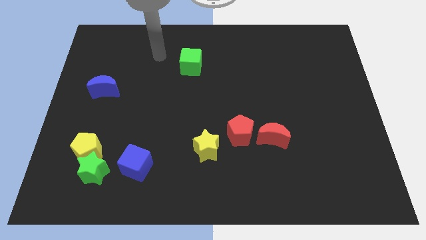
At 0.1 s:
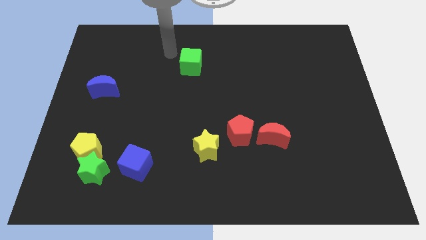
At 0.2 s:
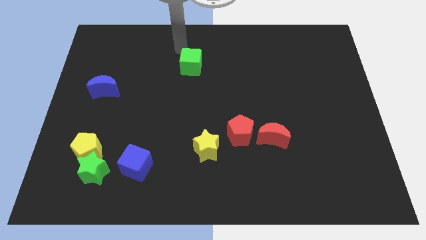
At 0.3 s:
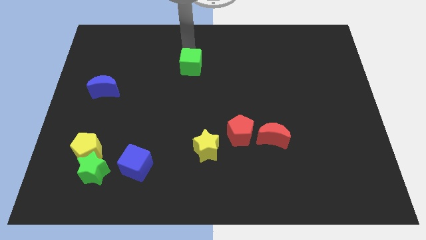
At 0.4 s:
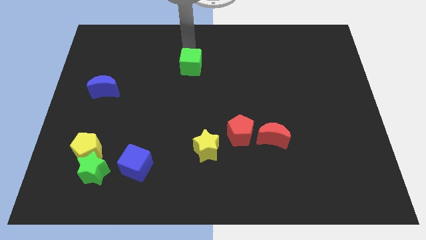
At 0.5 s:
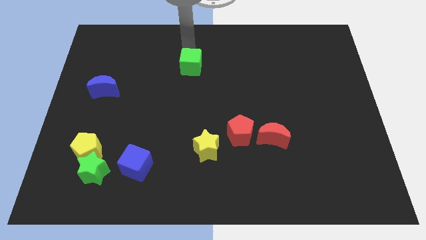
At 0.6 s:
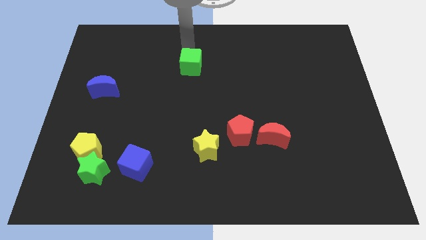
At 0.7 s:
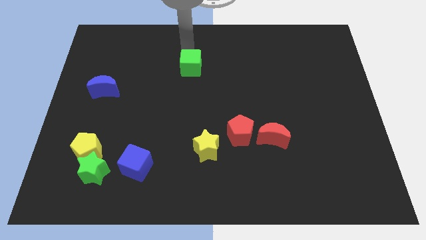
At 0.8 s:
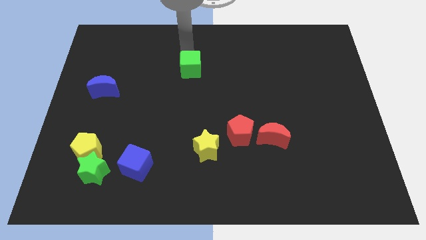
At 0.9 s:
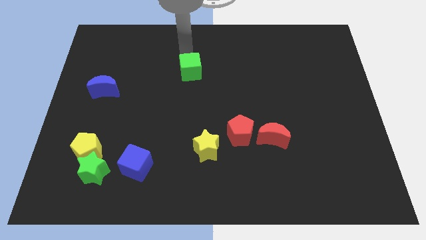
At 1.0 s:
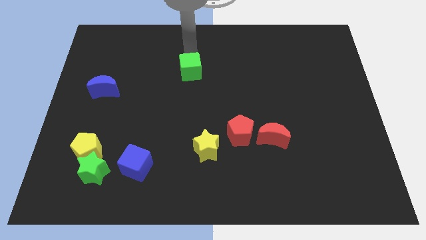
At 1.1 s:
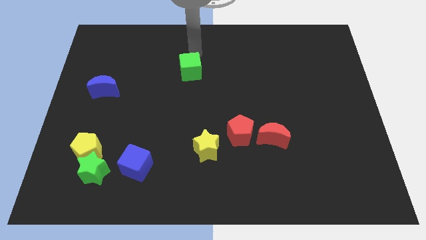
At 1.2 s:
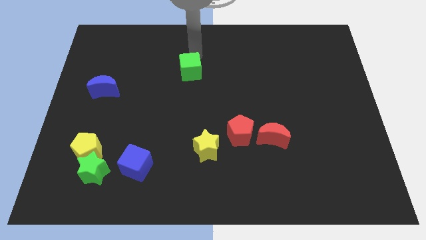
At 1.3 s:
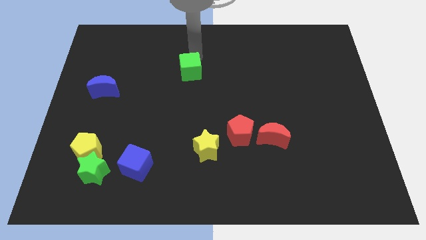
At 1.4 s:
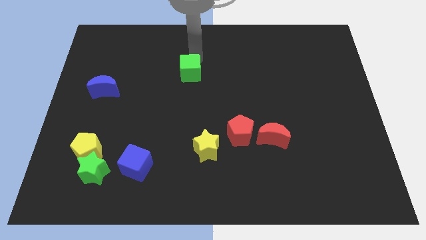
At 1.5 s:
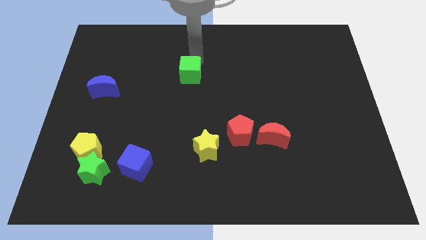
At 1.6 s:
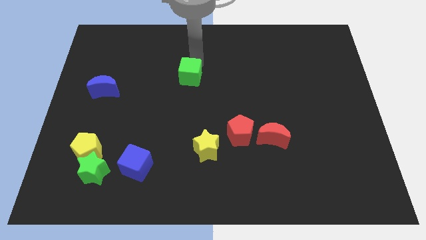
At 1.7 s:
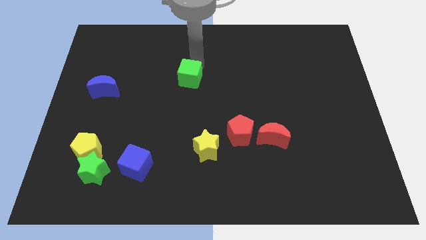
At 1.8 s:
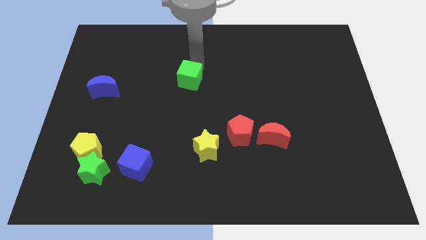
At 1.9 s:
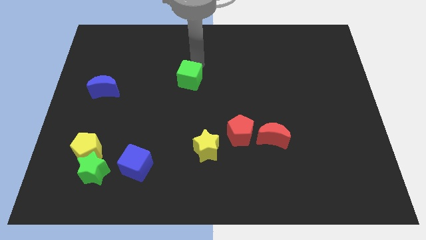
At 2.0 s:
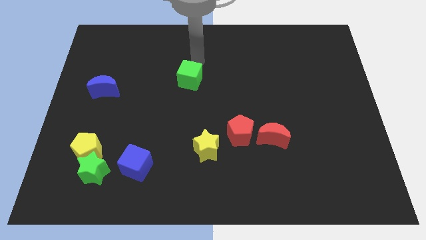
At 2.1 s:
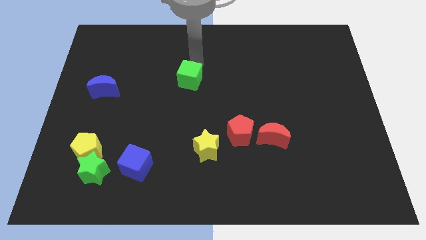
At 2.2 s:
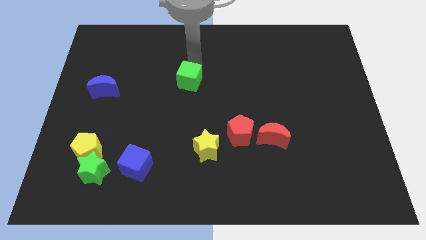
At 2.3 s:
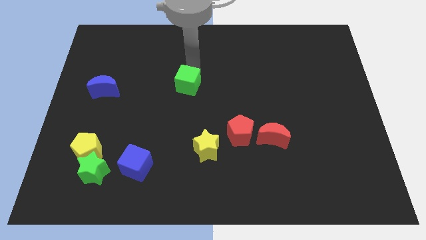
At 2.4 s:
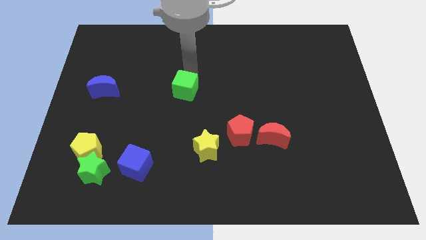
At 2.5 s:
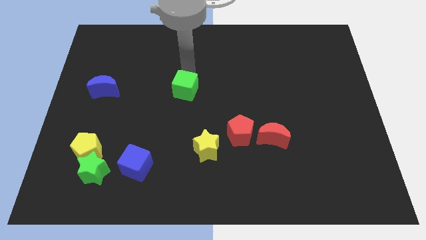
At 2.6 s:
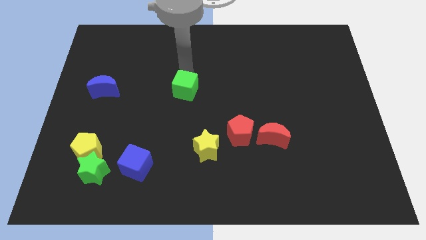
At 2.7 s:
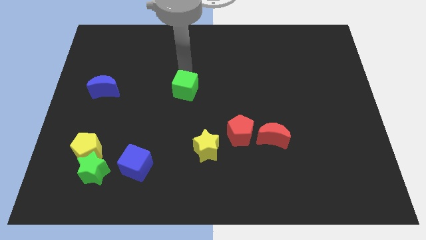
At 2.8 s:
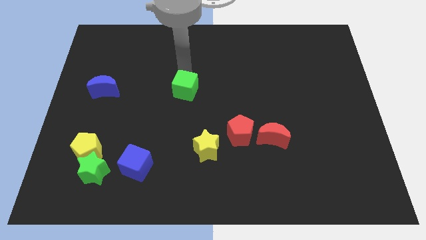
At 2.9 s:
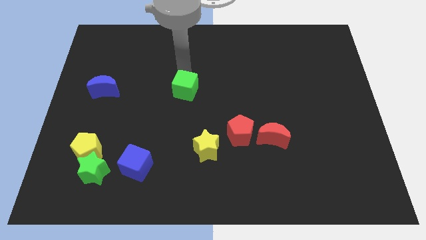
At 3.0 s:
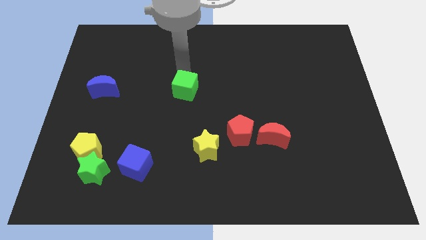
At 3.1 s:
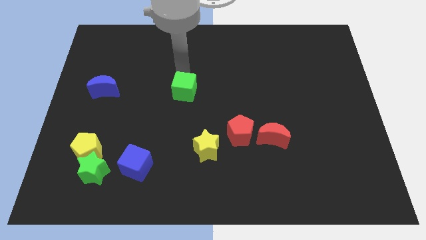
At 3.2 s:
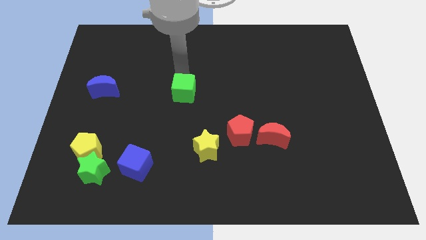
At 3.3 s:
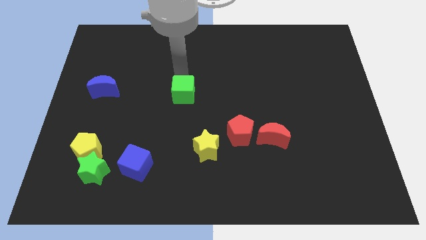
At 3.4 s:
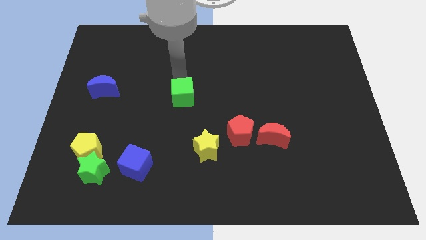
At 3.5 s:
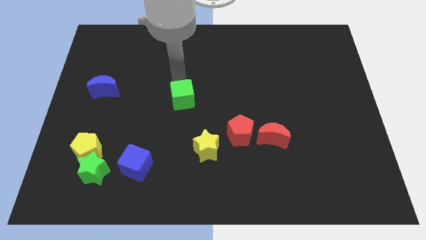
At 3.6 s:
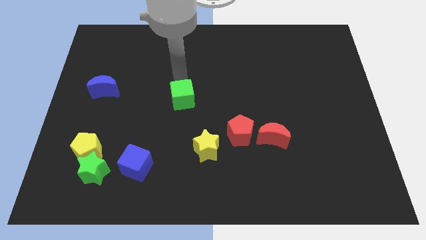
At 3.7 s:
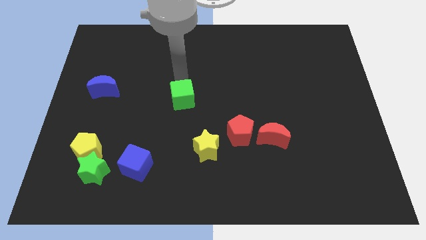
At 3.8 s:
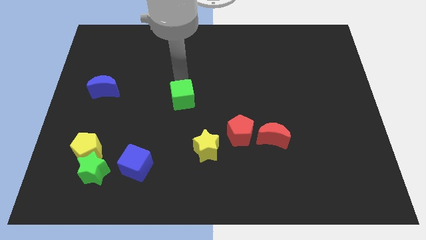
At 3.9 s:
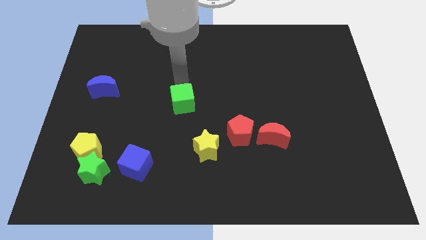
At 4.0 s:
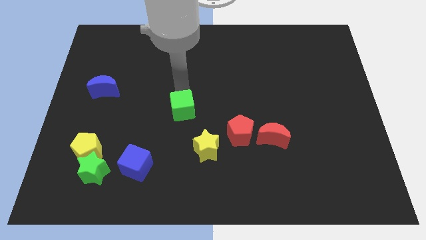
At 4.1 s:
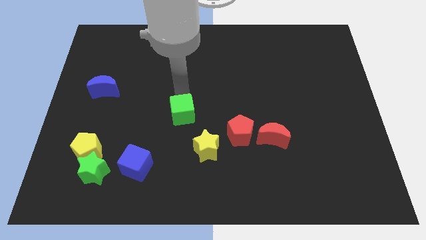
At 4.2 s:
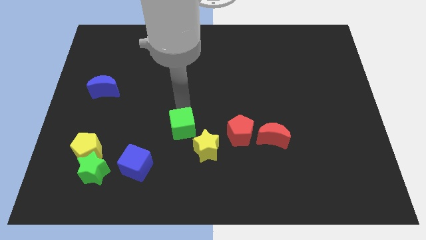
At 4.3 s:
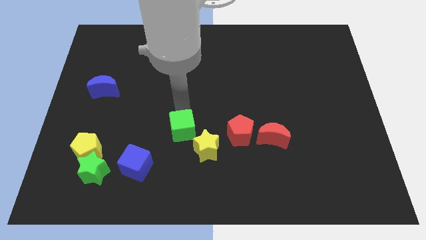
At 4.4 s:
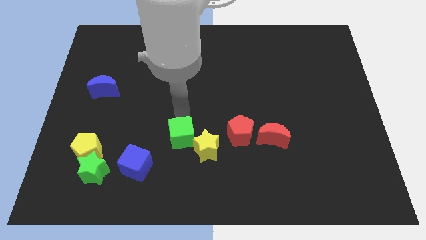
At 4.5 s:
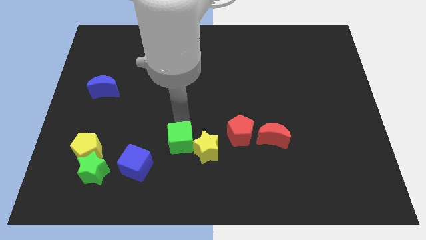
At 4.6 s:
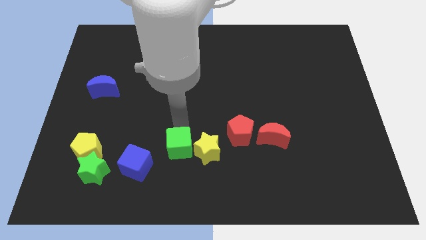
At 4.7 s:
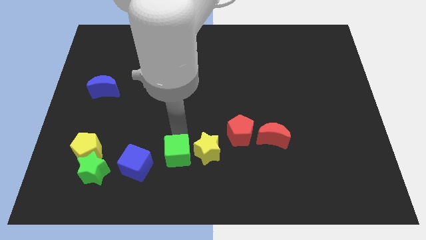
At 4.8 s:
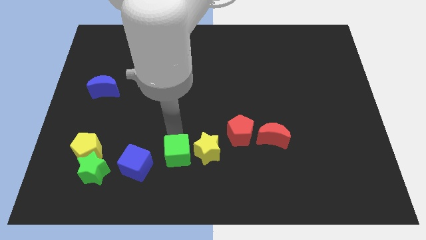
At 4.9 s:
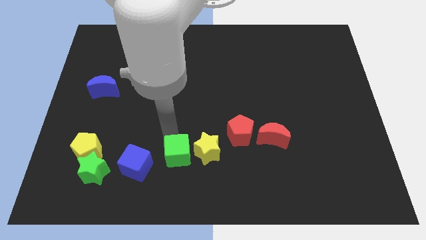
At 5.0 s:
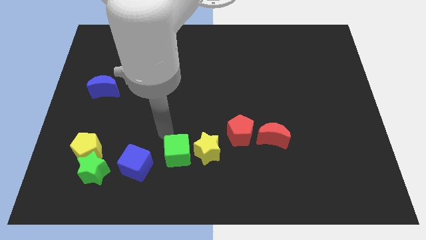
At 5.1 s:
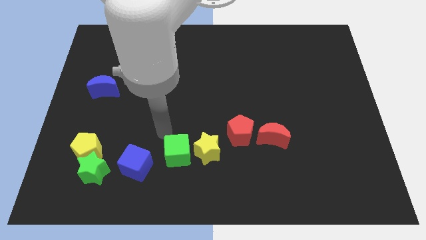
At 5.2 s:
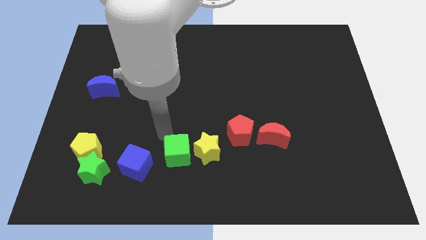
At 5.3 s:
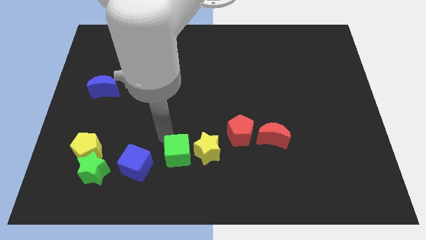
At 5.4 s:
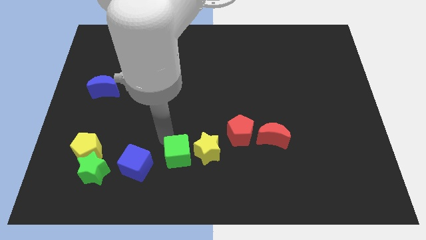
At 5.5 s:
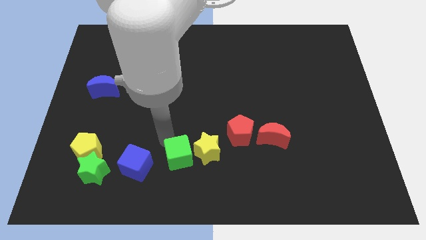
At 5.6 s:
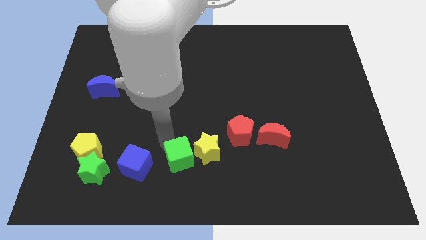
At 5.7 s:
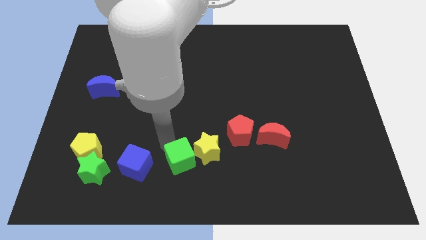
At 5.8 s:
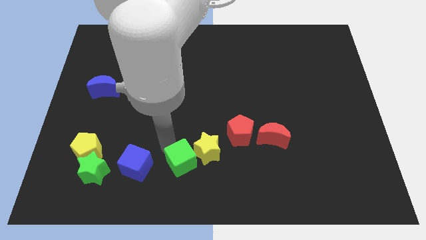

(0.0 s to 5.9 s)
put the green cube to the bottom side

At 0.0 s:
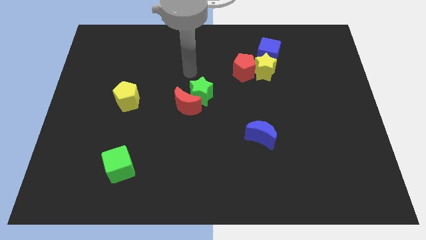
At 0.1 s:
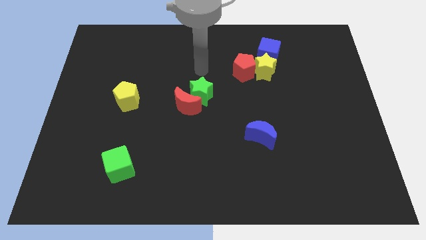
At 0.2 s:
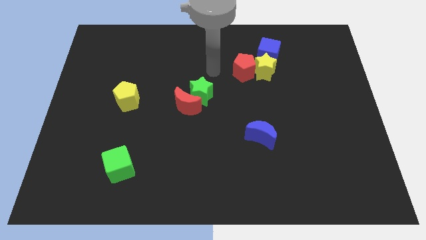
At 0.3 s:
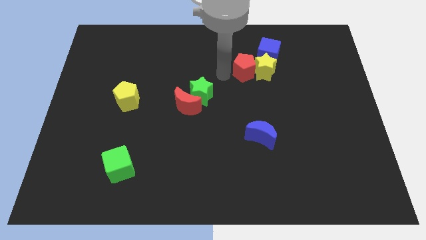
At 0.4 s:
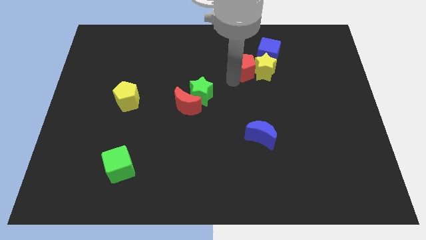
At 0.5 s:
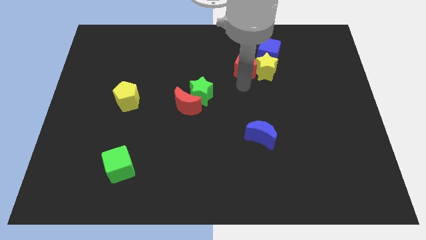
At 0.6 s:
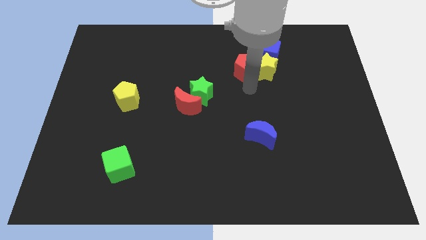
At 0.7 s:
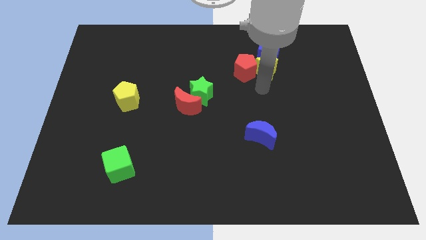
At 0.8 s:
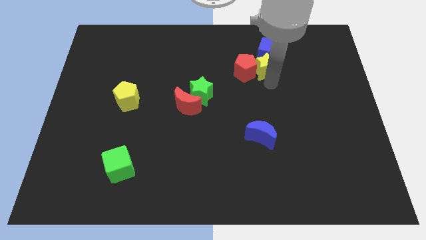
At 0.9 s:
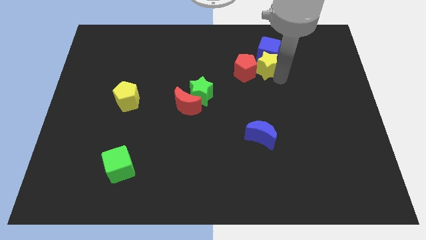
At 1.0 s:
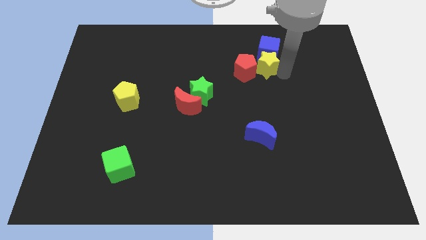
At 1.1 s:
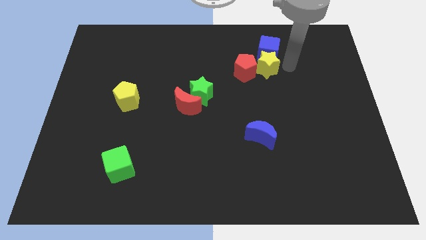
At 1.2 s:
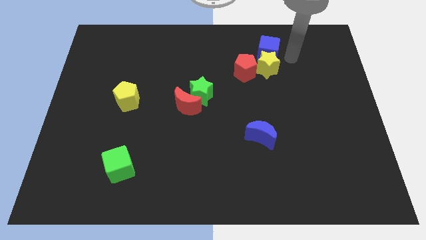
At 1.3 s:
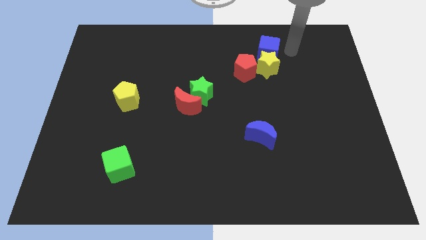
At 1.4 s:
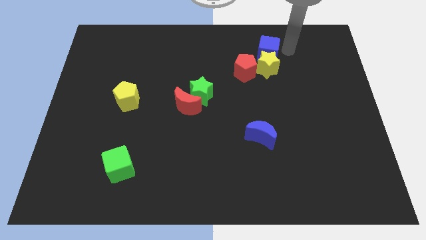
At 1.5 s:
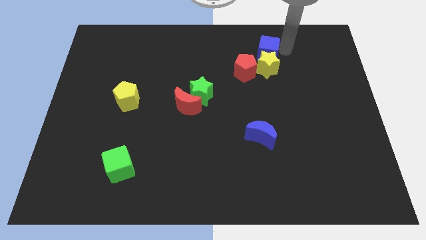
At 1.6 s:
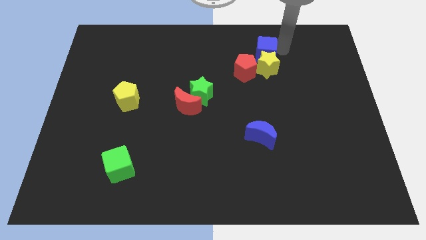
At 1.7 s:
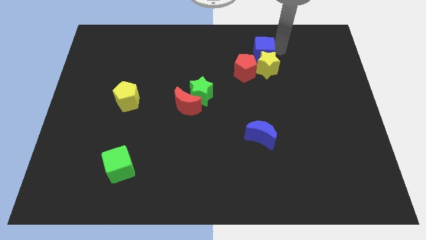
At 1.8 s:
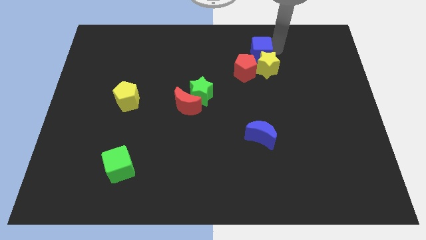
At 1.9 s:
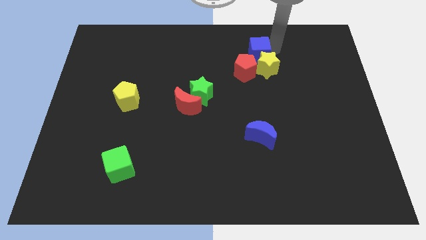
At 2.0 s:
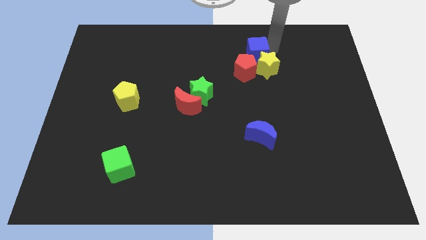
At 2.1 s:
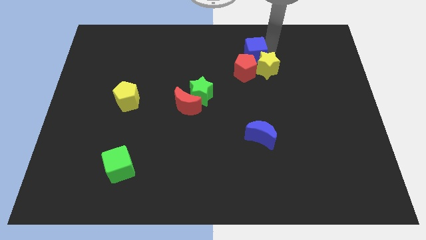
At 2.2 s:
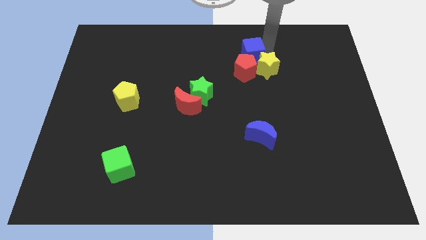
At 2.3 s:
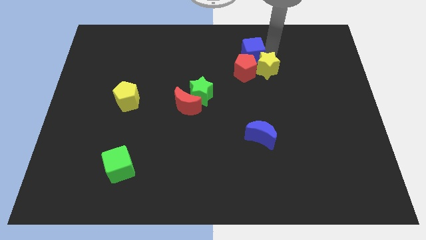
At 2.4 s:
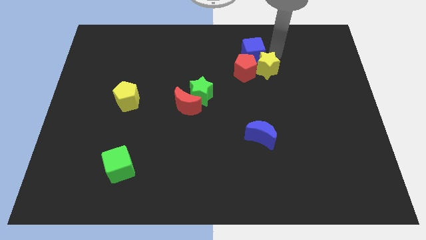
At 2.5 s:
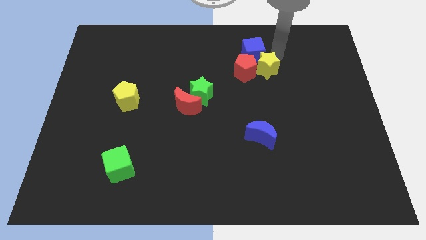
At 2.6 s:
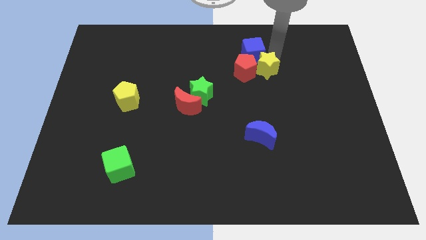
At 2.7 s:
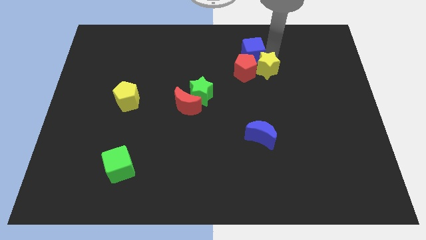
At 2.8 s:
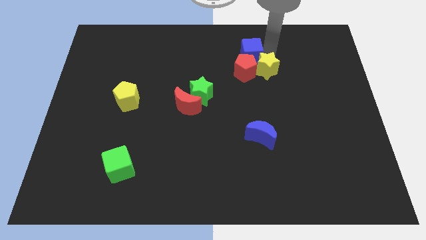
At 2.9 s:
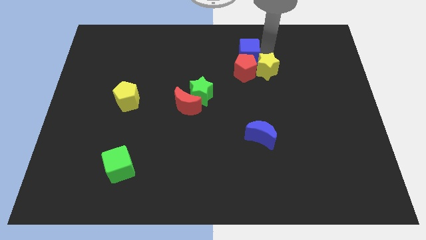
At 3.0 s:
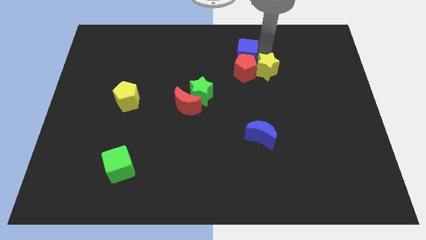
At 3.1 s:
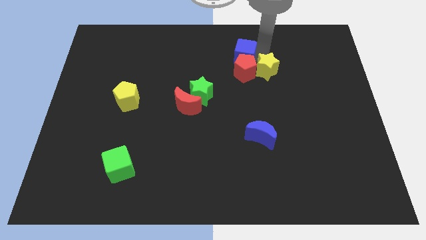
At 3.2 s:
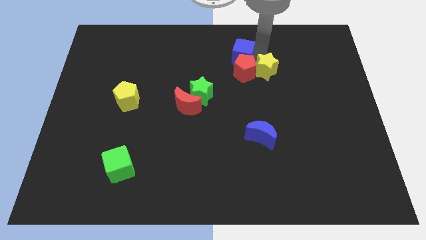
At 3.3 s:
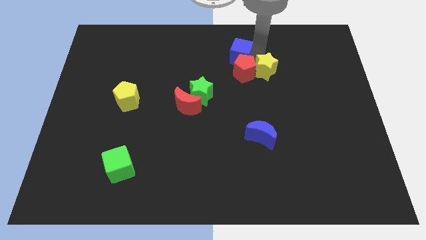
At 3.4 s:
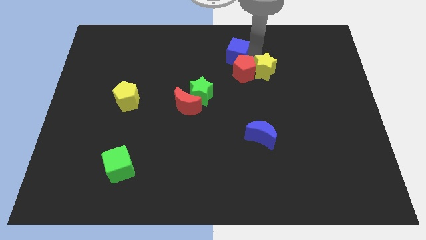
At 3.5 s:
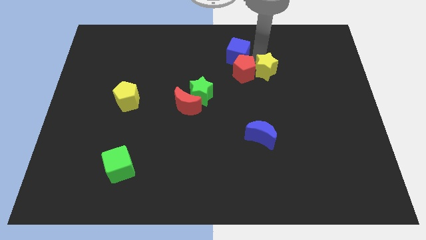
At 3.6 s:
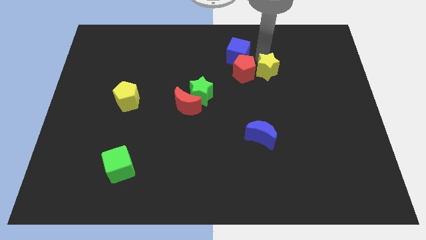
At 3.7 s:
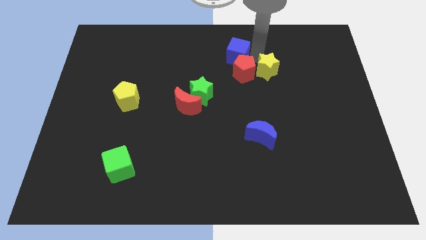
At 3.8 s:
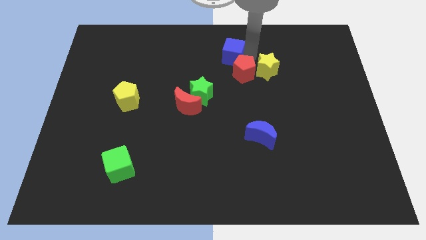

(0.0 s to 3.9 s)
slide the blue cube to the top side
